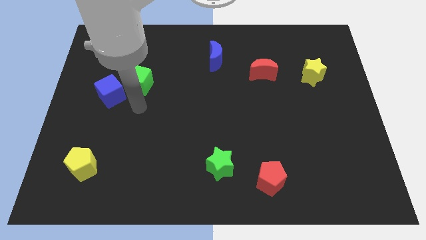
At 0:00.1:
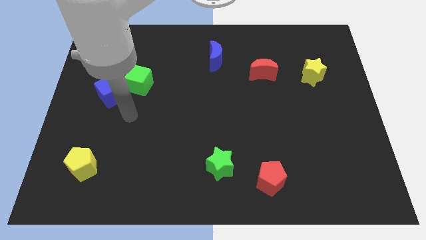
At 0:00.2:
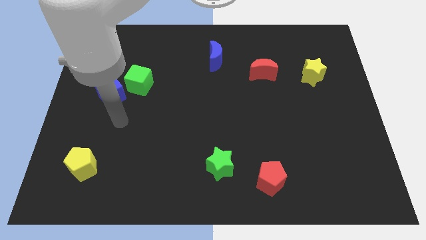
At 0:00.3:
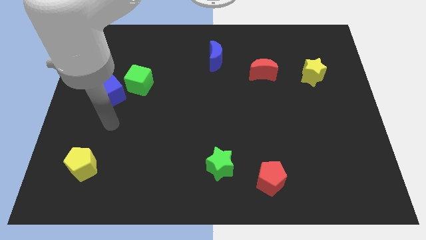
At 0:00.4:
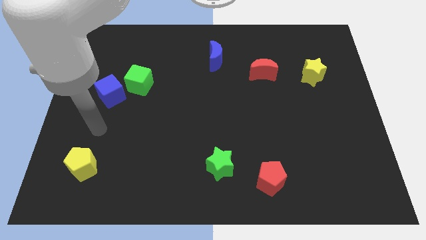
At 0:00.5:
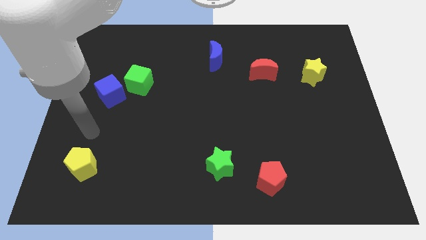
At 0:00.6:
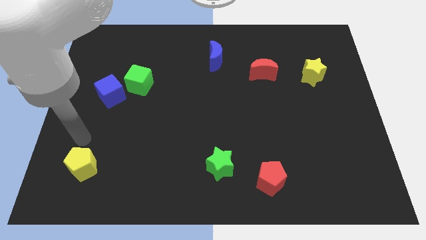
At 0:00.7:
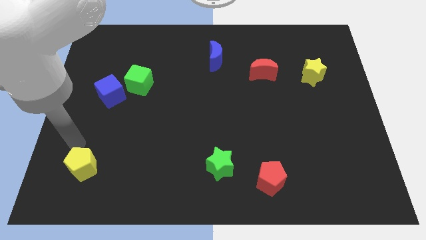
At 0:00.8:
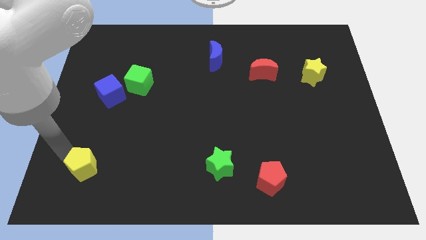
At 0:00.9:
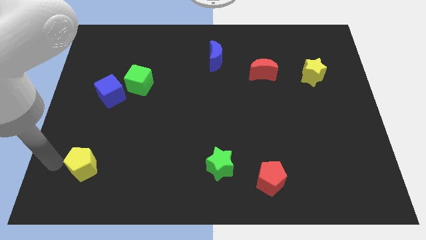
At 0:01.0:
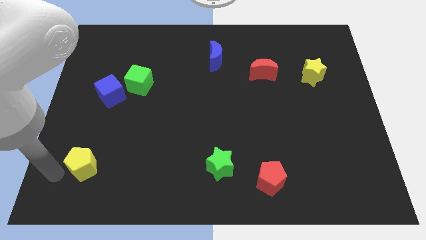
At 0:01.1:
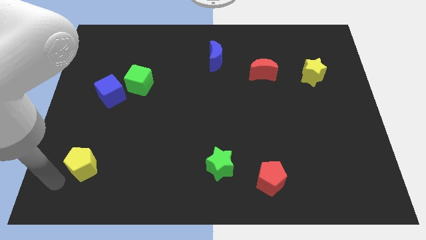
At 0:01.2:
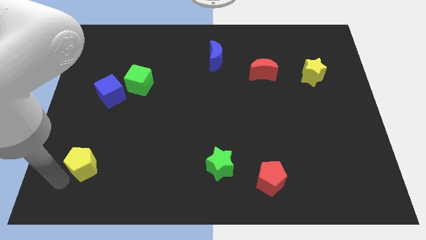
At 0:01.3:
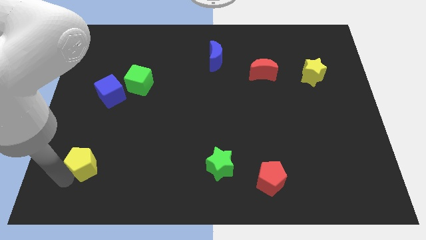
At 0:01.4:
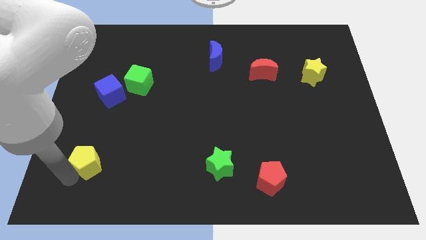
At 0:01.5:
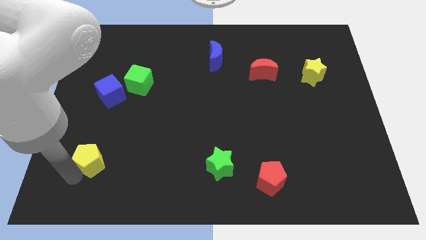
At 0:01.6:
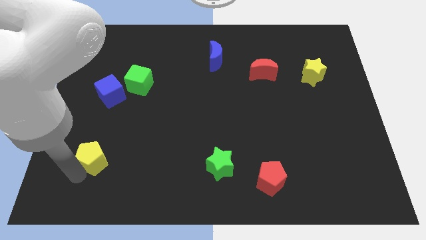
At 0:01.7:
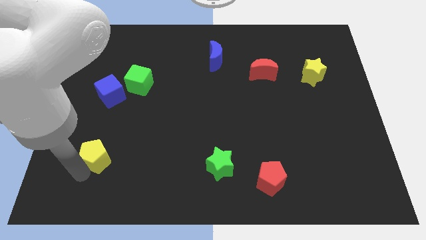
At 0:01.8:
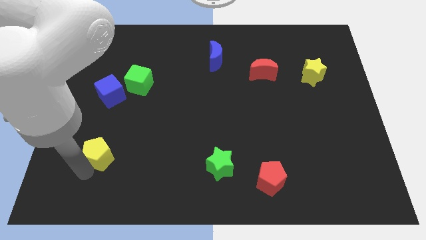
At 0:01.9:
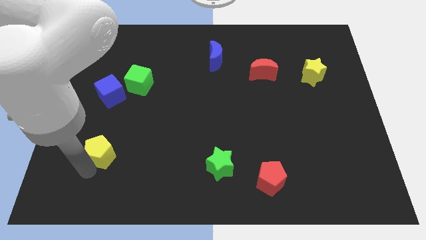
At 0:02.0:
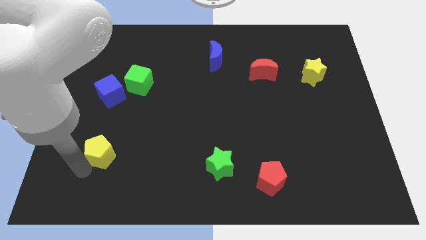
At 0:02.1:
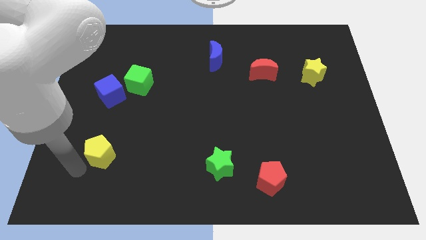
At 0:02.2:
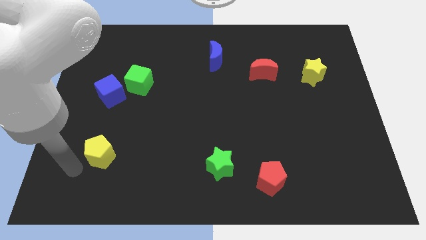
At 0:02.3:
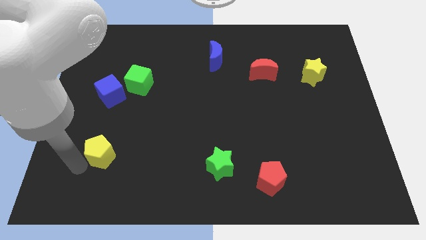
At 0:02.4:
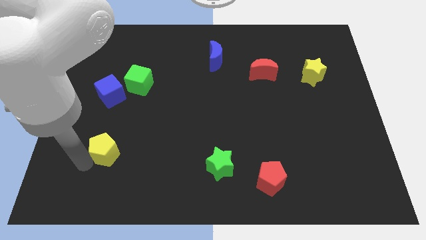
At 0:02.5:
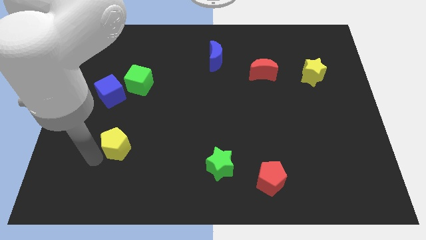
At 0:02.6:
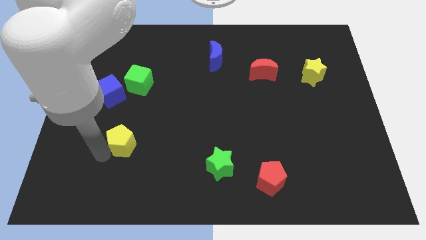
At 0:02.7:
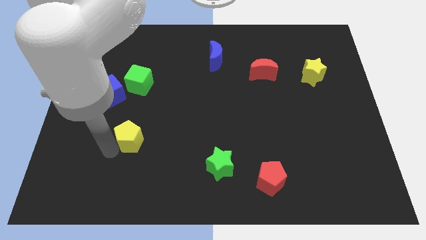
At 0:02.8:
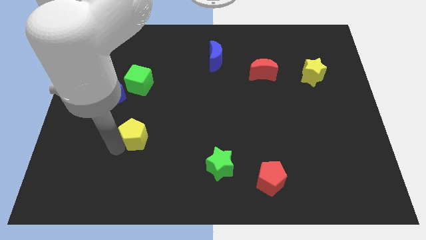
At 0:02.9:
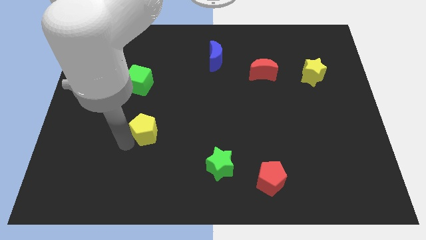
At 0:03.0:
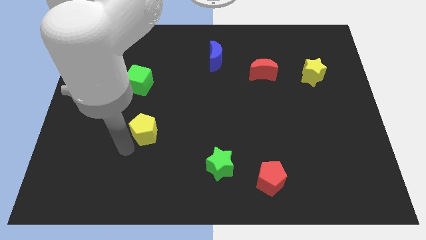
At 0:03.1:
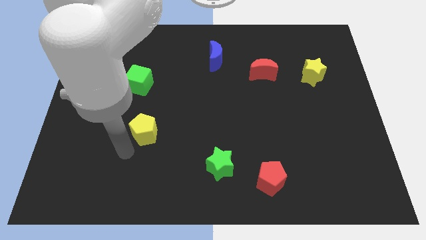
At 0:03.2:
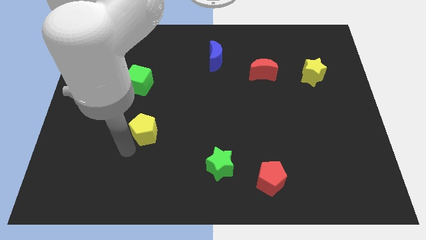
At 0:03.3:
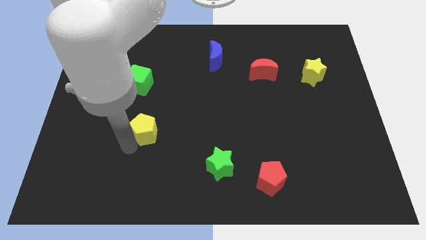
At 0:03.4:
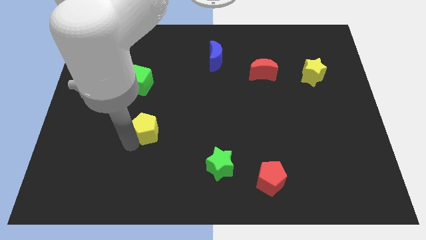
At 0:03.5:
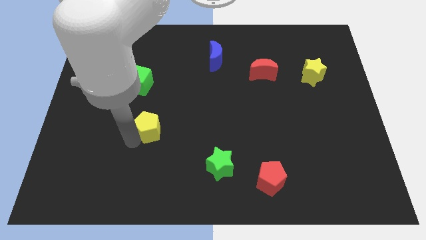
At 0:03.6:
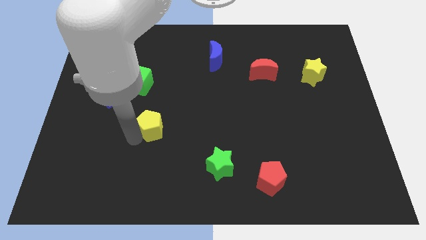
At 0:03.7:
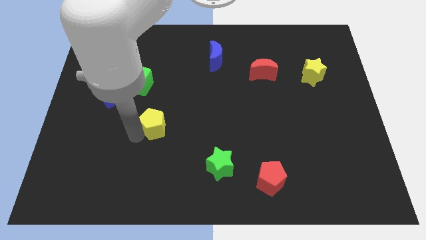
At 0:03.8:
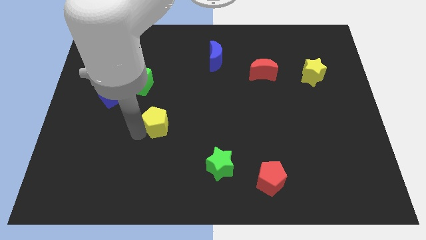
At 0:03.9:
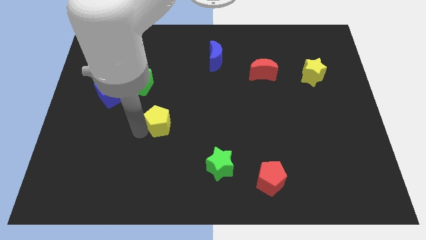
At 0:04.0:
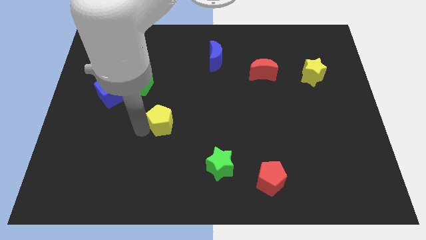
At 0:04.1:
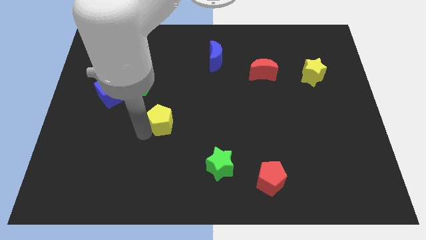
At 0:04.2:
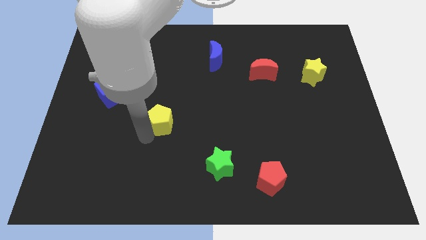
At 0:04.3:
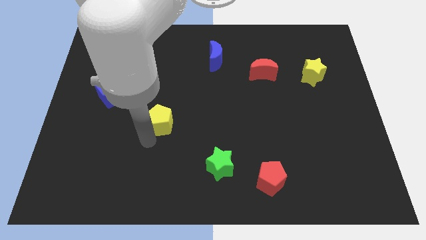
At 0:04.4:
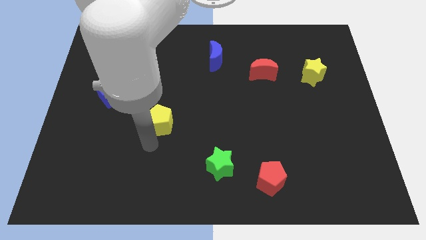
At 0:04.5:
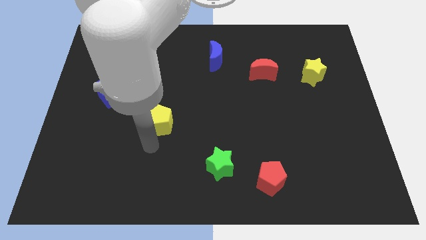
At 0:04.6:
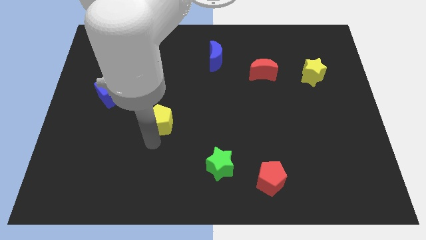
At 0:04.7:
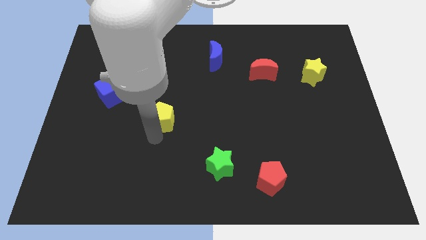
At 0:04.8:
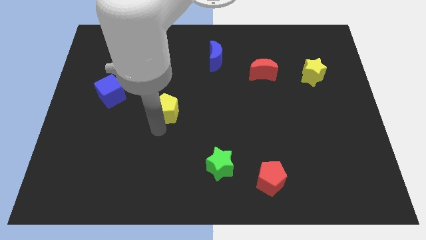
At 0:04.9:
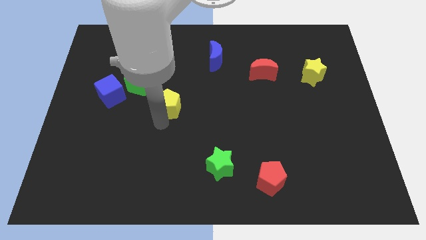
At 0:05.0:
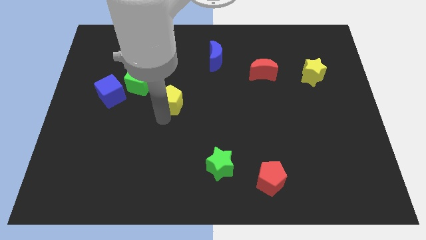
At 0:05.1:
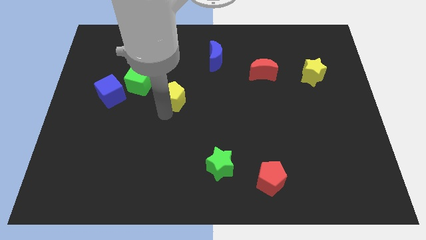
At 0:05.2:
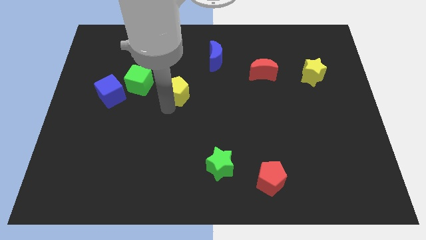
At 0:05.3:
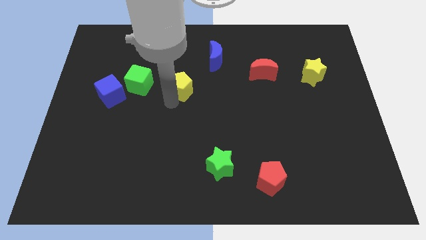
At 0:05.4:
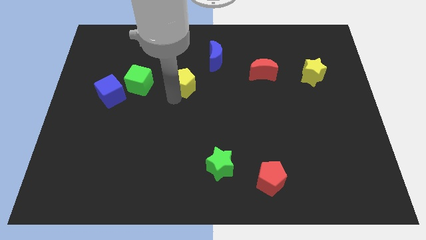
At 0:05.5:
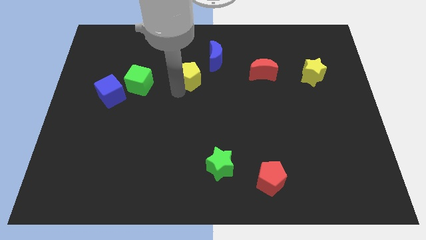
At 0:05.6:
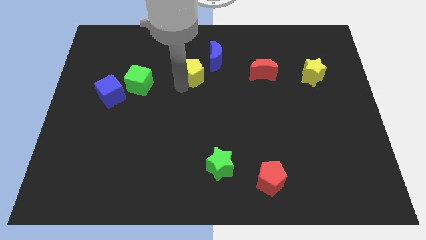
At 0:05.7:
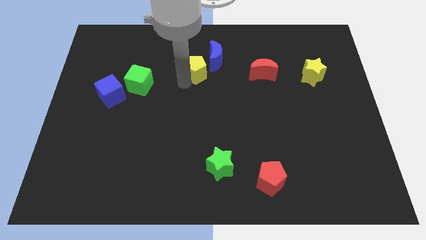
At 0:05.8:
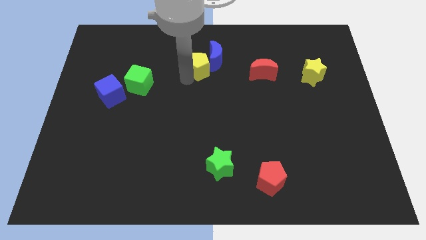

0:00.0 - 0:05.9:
push the yellow pentagon to the blue moon
